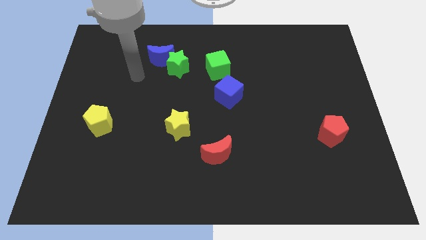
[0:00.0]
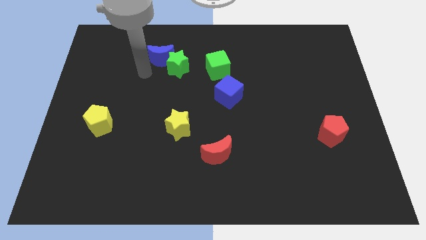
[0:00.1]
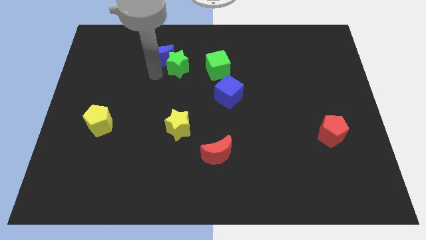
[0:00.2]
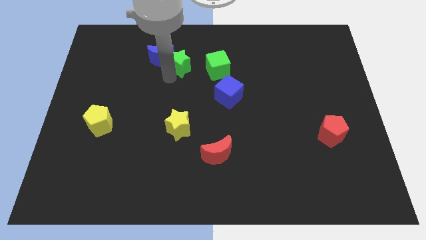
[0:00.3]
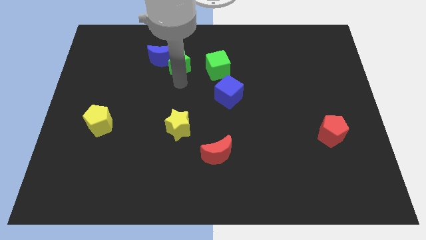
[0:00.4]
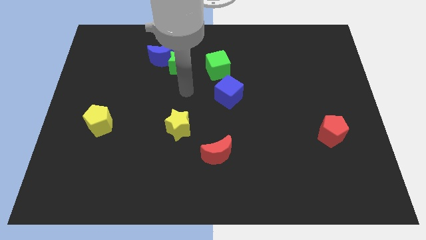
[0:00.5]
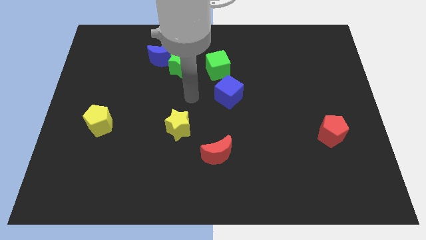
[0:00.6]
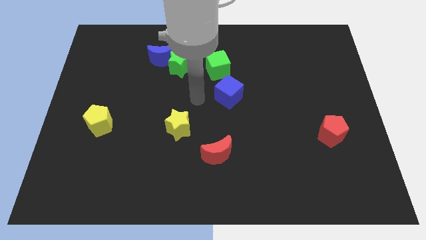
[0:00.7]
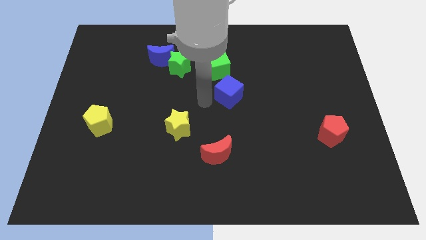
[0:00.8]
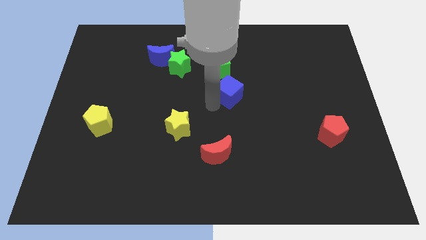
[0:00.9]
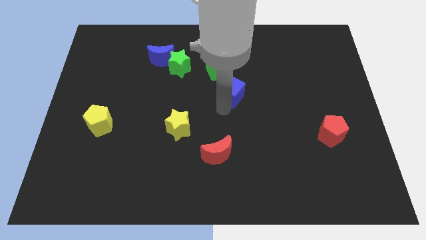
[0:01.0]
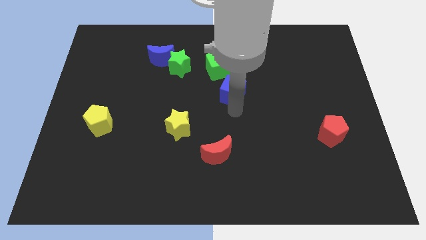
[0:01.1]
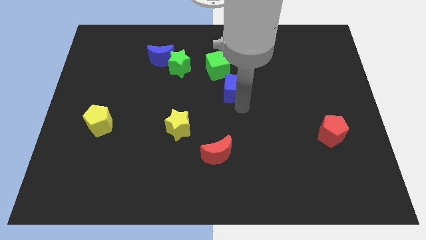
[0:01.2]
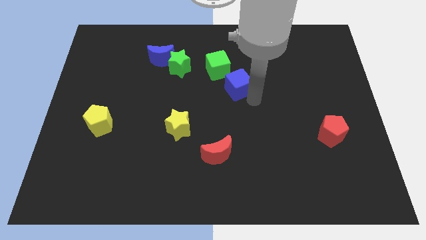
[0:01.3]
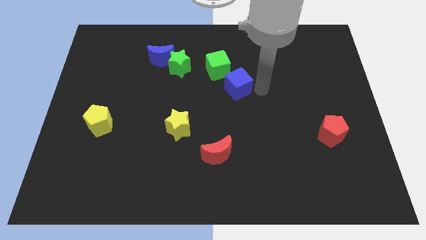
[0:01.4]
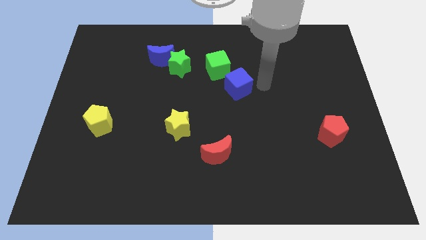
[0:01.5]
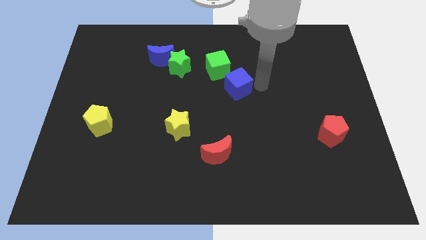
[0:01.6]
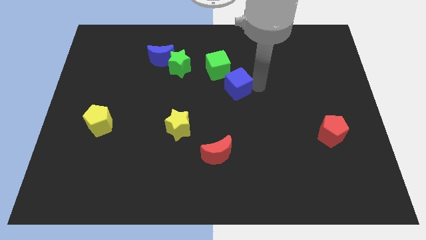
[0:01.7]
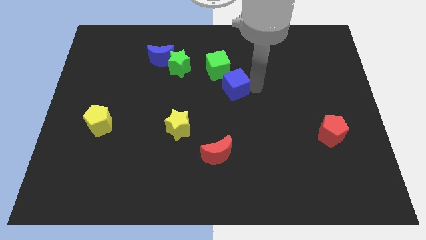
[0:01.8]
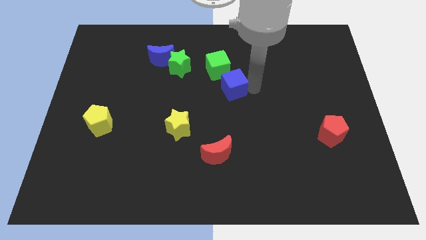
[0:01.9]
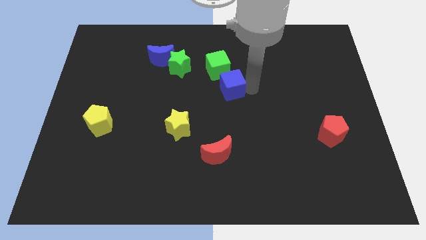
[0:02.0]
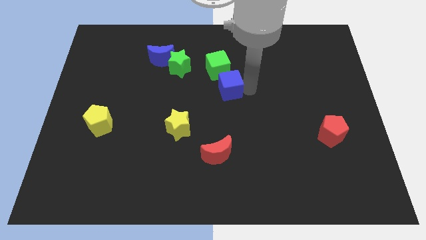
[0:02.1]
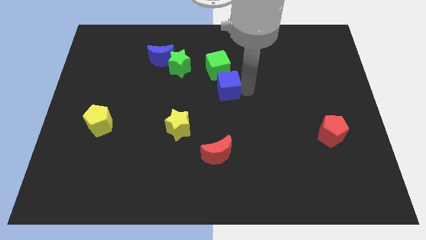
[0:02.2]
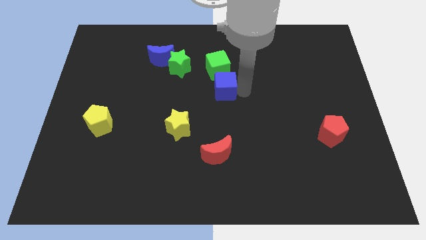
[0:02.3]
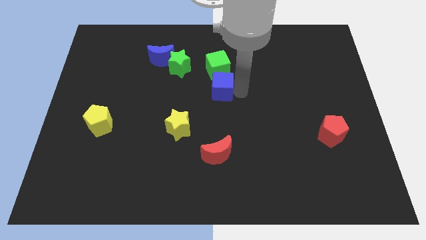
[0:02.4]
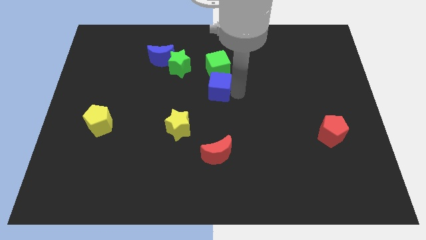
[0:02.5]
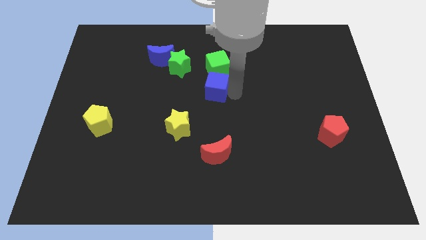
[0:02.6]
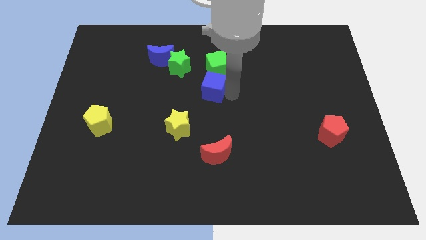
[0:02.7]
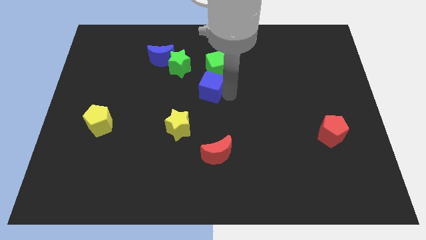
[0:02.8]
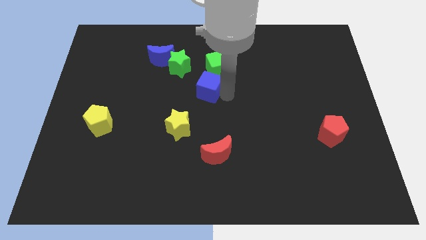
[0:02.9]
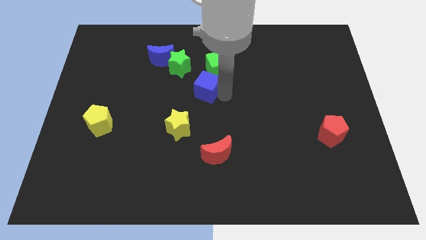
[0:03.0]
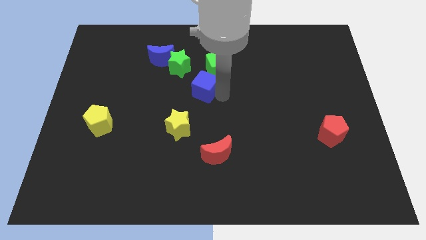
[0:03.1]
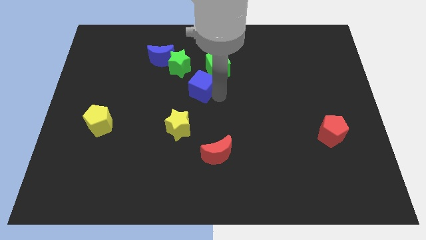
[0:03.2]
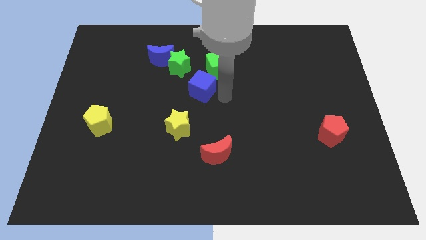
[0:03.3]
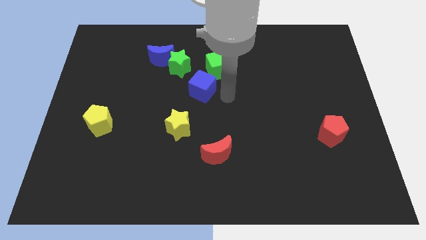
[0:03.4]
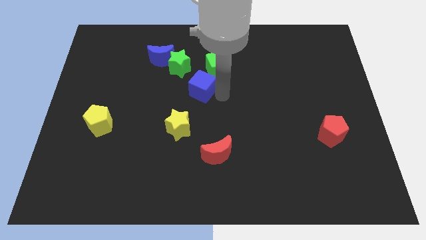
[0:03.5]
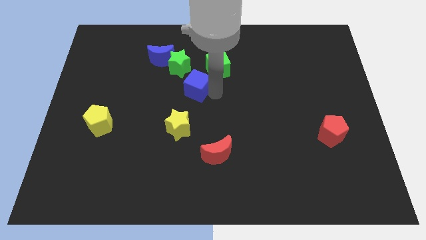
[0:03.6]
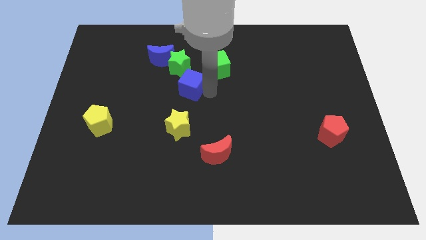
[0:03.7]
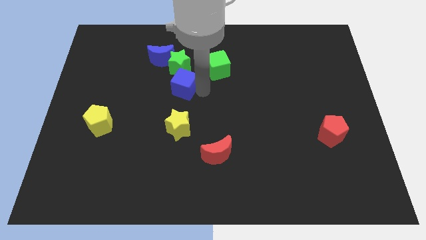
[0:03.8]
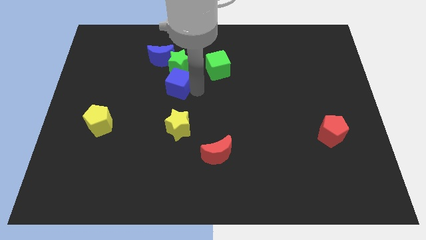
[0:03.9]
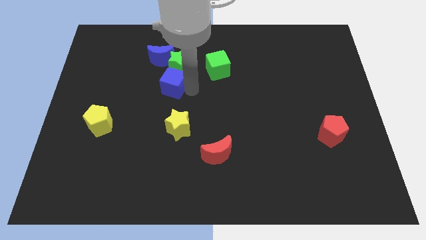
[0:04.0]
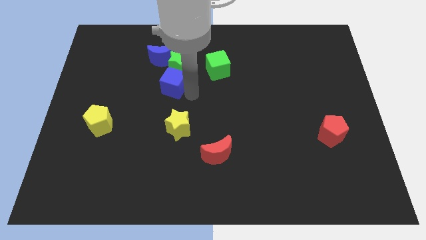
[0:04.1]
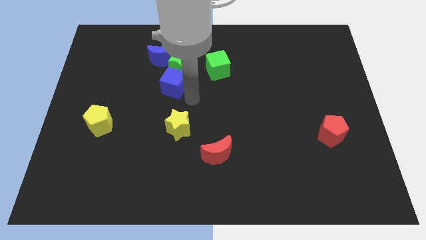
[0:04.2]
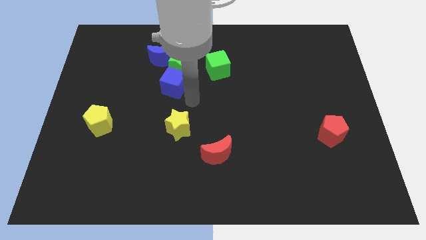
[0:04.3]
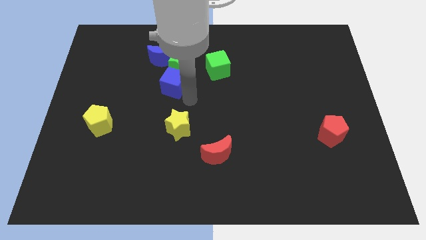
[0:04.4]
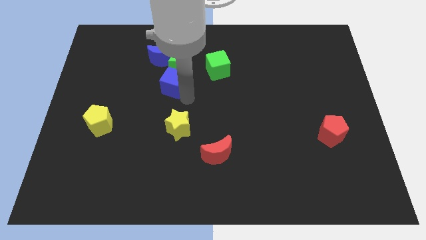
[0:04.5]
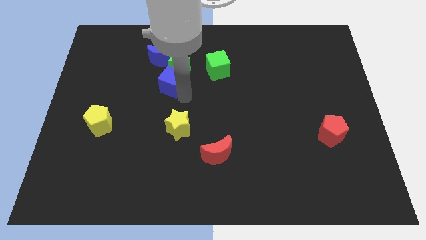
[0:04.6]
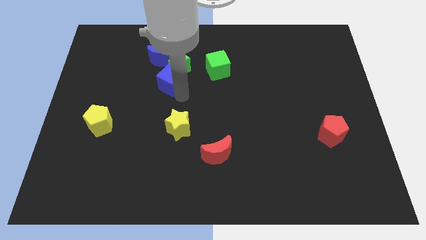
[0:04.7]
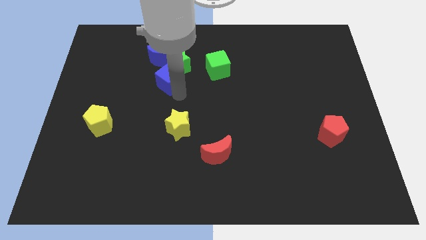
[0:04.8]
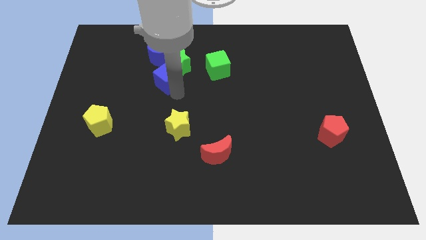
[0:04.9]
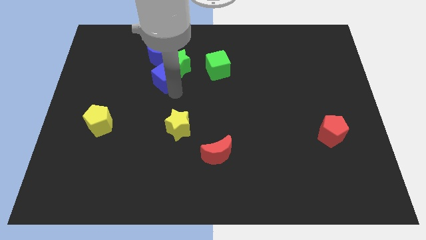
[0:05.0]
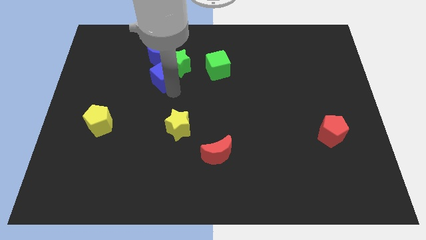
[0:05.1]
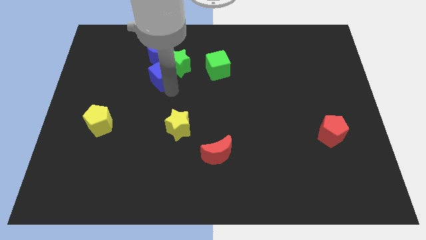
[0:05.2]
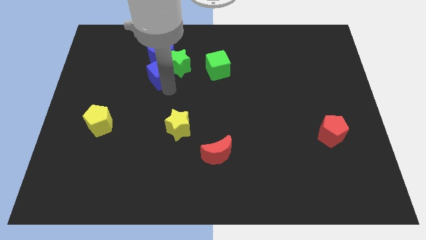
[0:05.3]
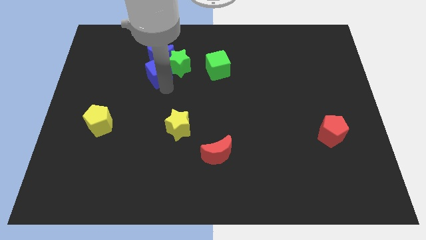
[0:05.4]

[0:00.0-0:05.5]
push the blue cube towards the blue moon

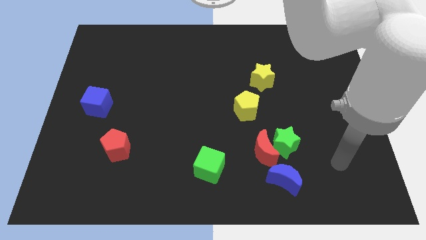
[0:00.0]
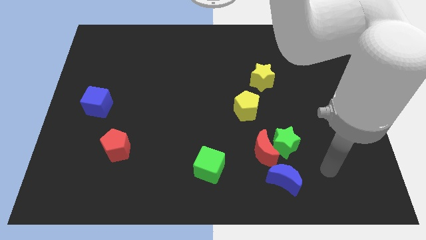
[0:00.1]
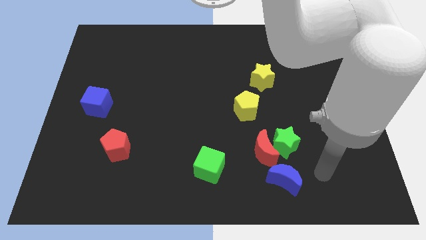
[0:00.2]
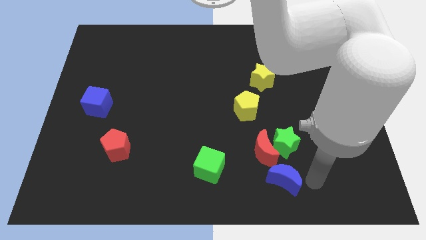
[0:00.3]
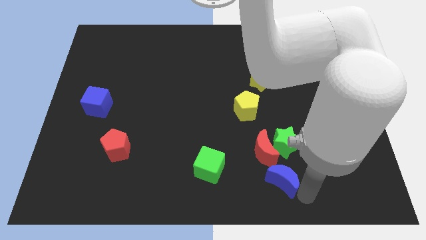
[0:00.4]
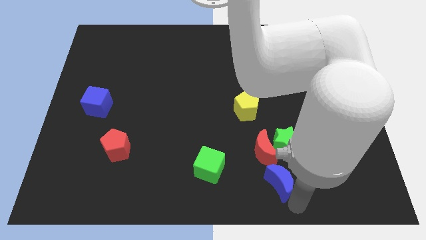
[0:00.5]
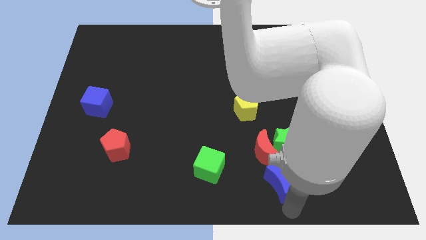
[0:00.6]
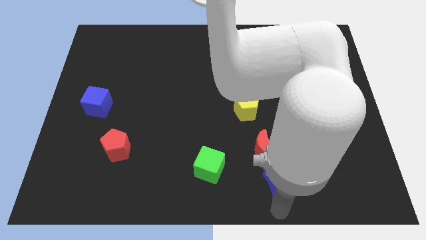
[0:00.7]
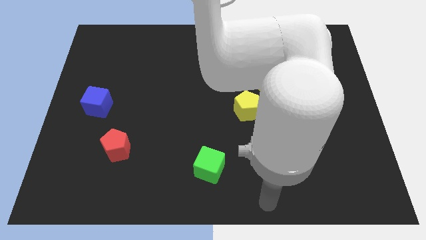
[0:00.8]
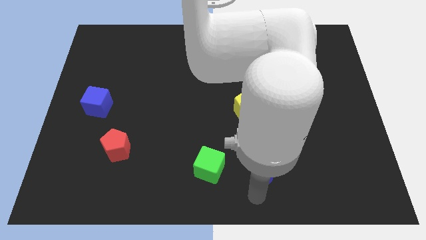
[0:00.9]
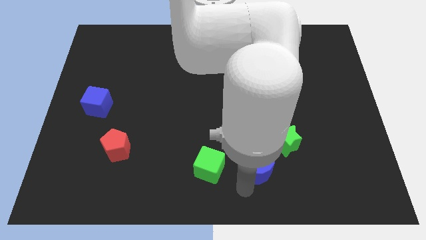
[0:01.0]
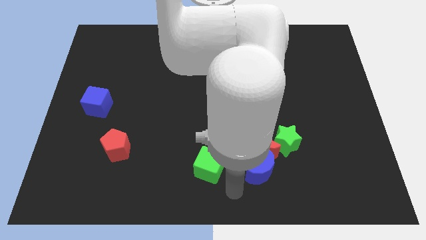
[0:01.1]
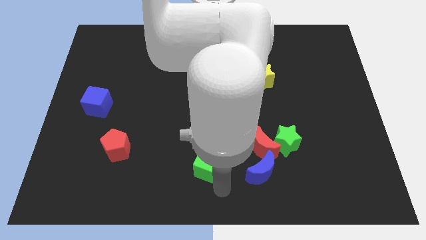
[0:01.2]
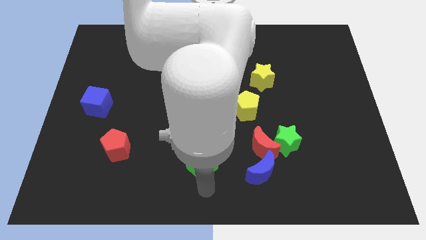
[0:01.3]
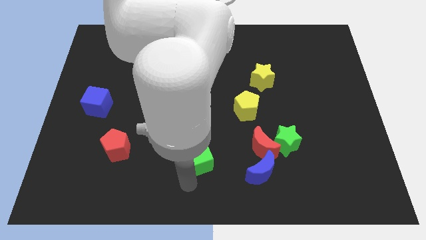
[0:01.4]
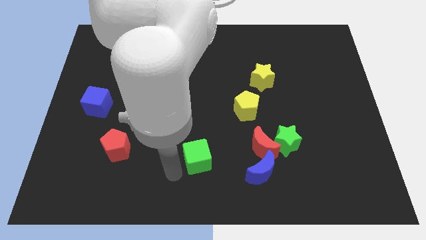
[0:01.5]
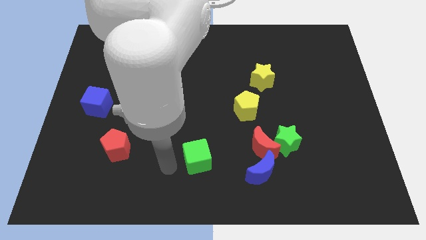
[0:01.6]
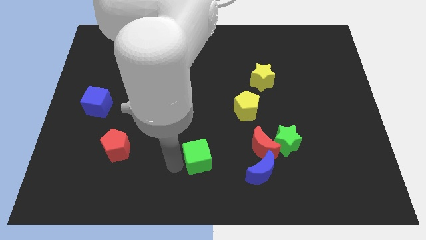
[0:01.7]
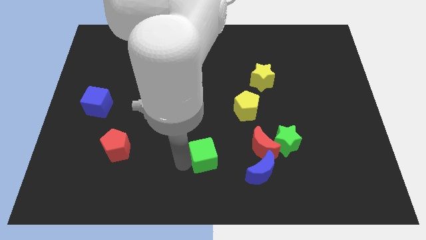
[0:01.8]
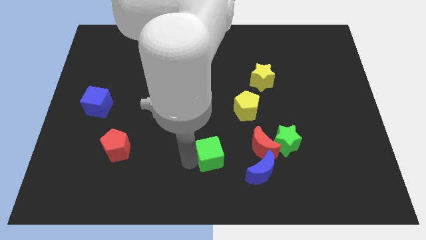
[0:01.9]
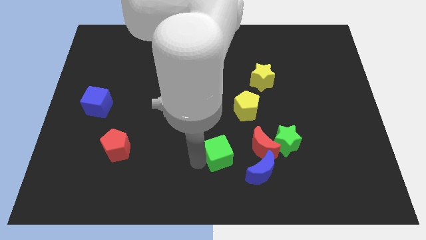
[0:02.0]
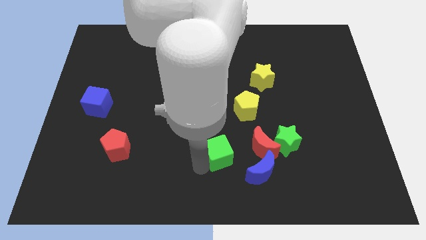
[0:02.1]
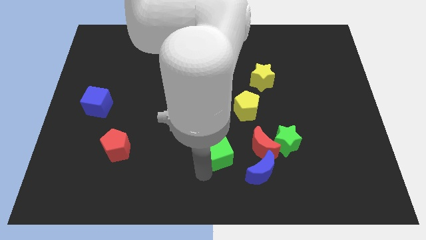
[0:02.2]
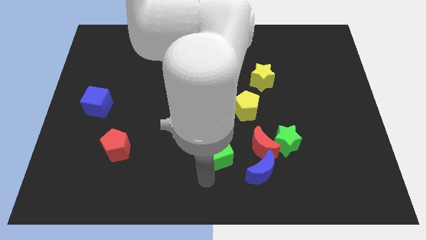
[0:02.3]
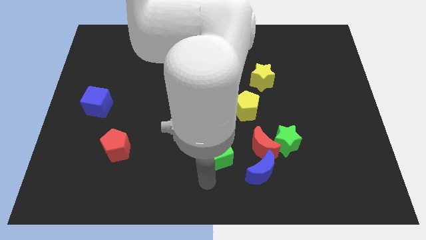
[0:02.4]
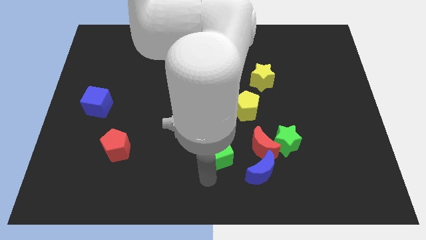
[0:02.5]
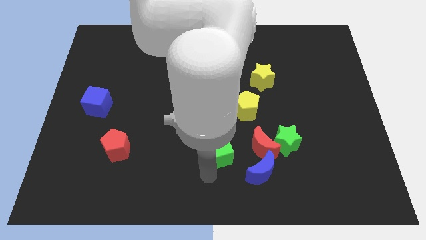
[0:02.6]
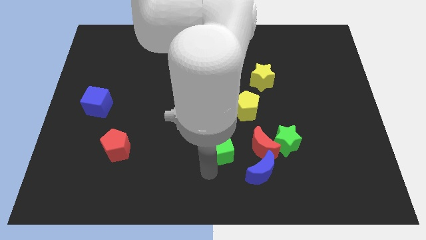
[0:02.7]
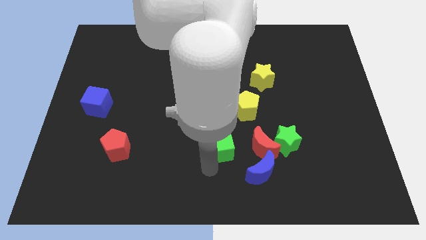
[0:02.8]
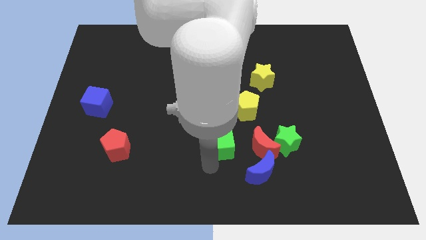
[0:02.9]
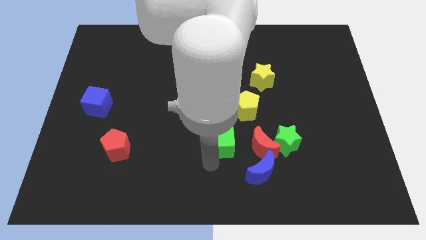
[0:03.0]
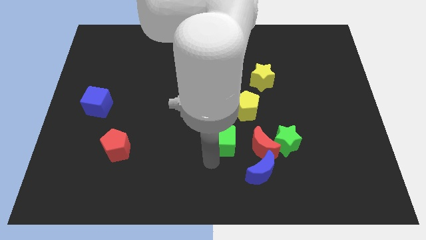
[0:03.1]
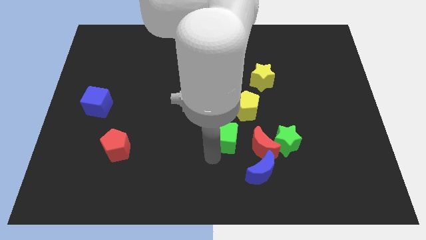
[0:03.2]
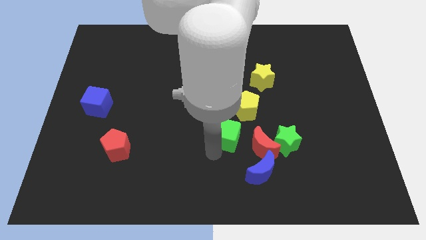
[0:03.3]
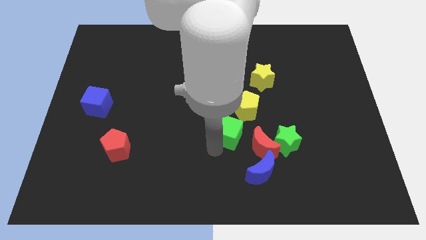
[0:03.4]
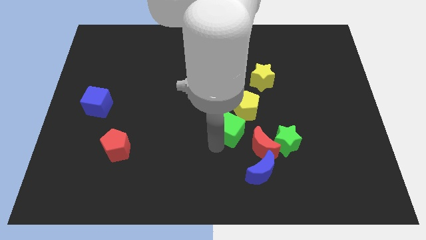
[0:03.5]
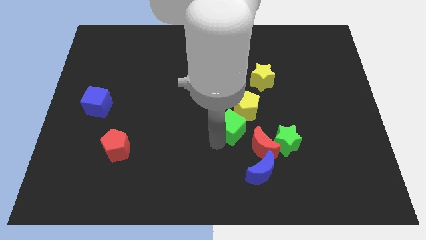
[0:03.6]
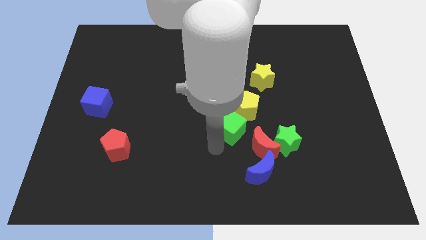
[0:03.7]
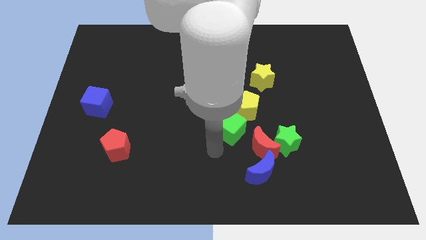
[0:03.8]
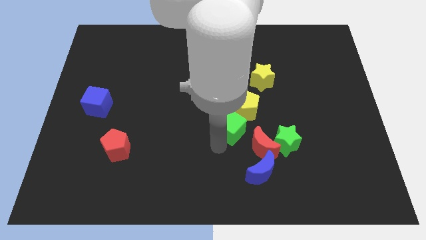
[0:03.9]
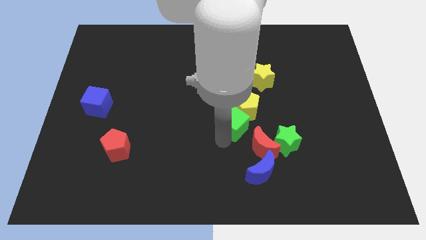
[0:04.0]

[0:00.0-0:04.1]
put the green cube close to the yellow pentagon
